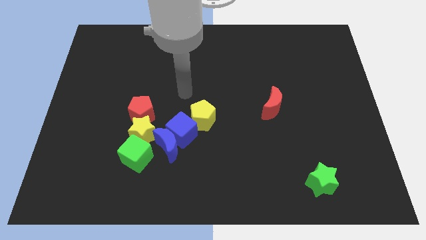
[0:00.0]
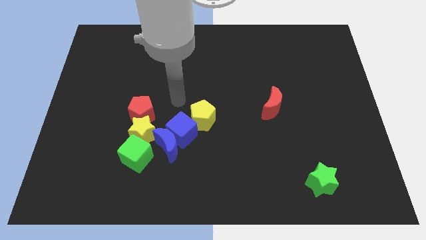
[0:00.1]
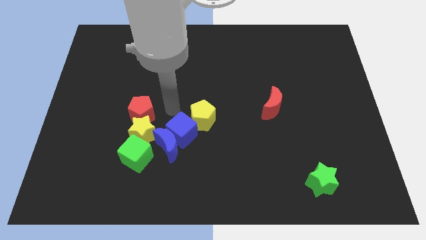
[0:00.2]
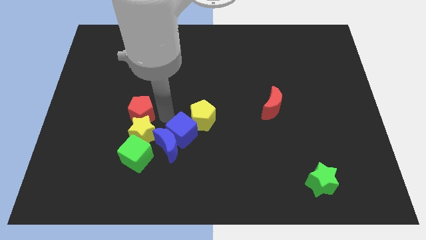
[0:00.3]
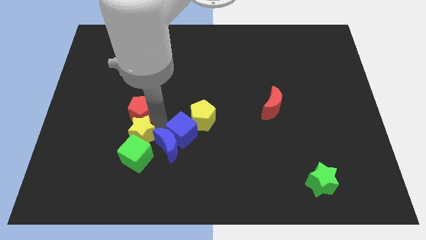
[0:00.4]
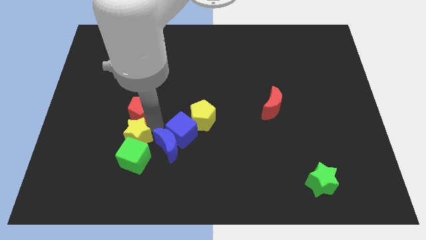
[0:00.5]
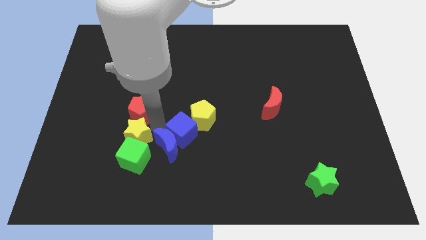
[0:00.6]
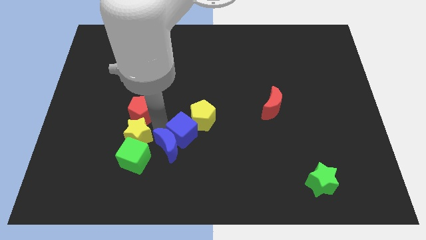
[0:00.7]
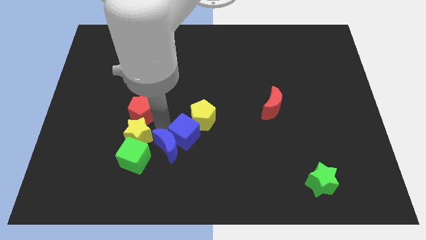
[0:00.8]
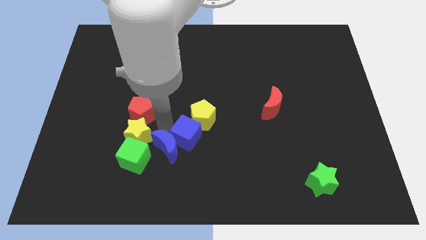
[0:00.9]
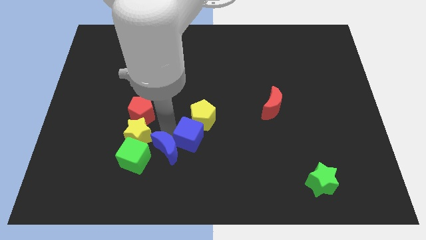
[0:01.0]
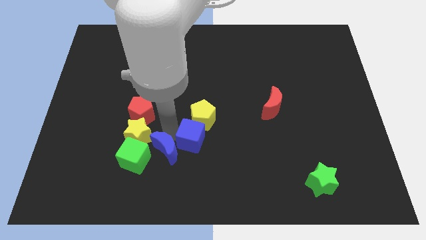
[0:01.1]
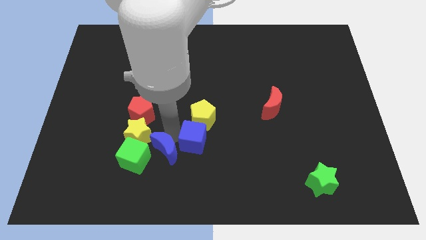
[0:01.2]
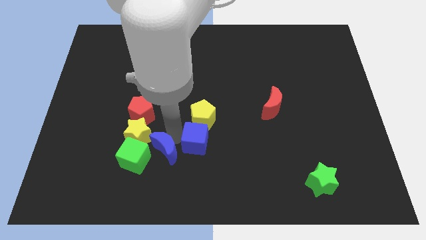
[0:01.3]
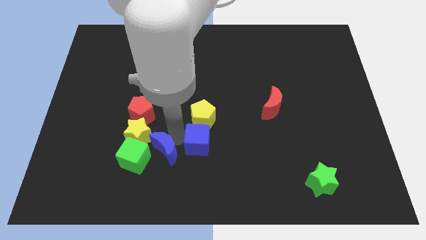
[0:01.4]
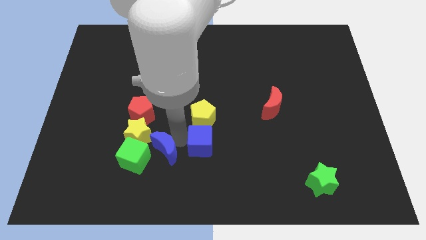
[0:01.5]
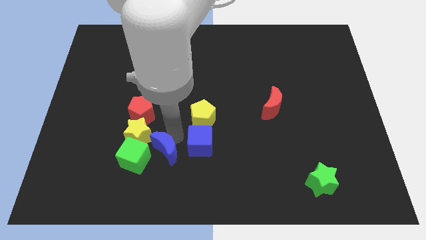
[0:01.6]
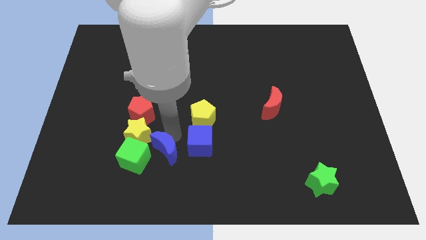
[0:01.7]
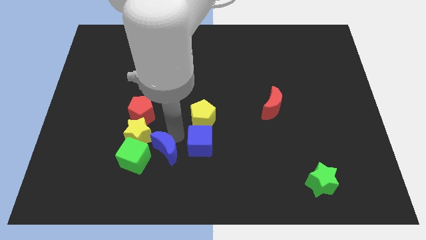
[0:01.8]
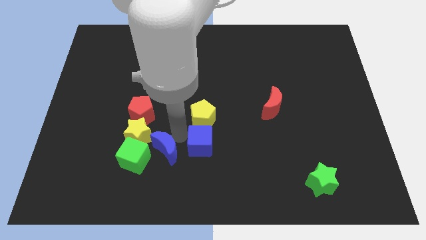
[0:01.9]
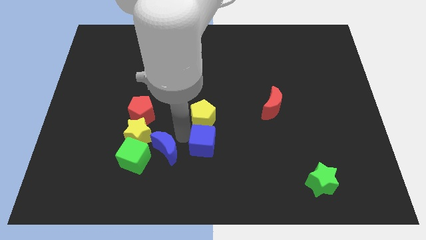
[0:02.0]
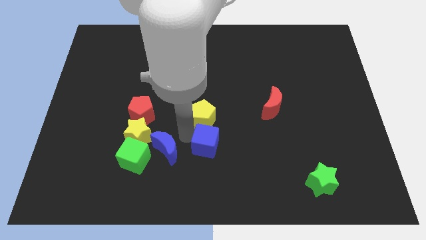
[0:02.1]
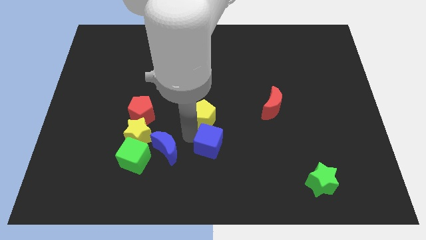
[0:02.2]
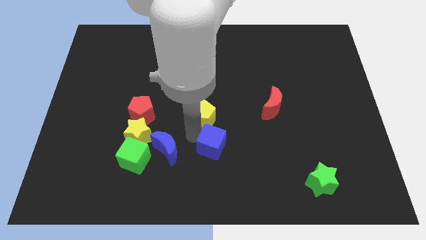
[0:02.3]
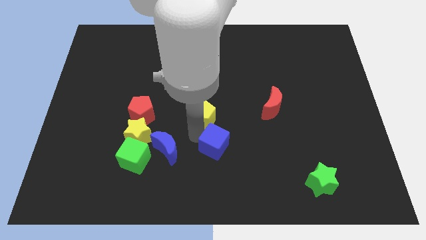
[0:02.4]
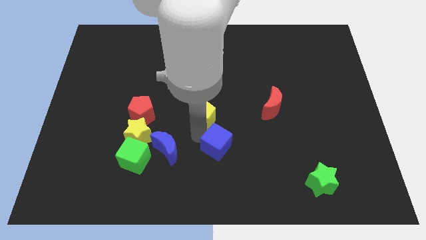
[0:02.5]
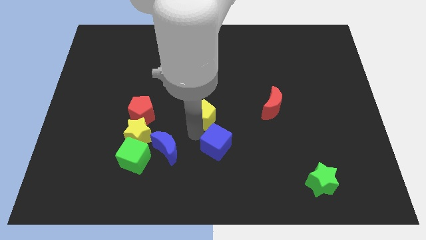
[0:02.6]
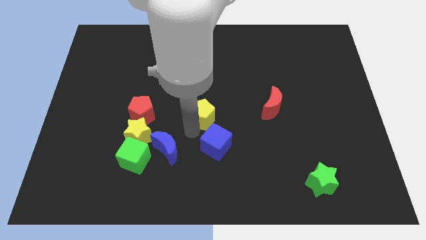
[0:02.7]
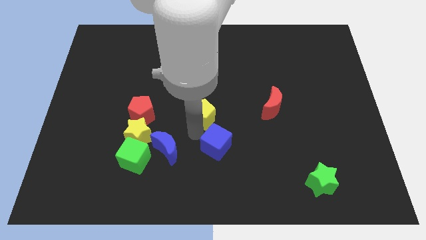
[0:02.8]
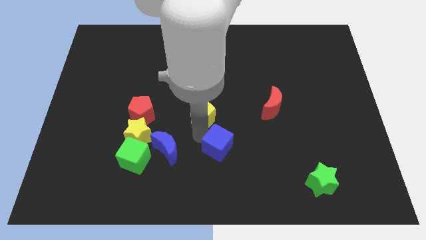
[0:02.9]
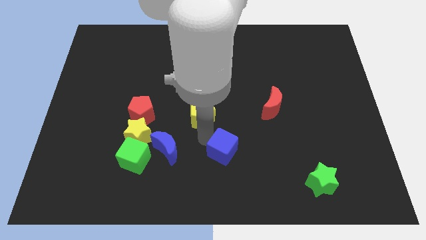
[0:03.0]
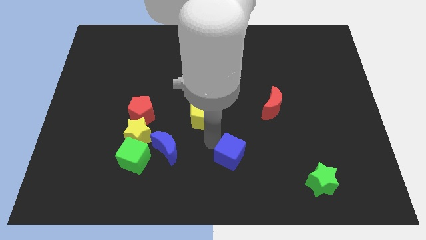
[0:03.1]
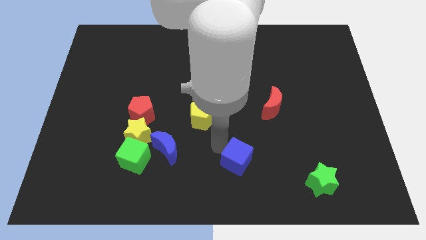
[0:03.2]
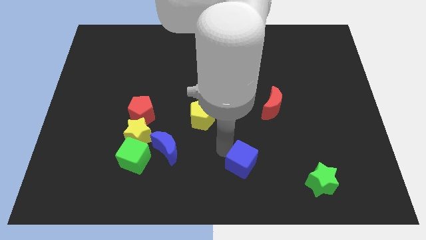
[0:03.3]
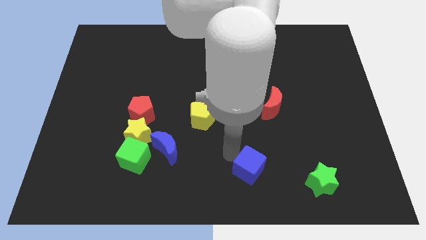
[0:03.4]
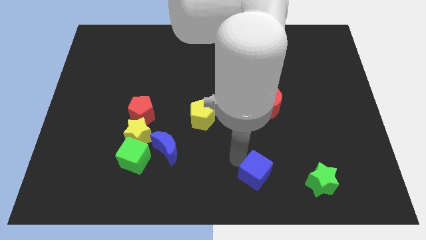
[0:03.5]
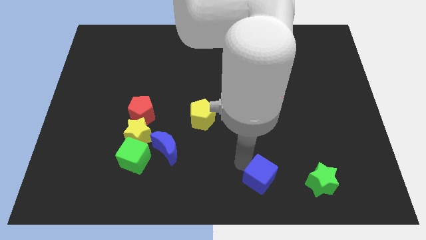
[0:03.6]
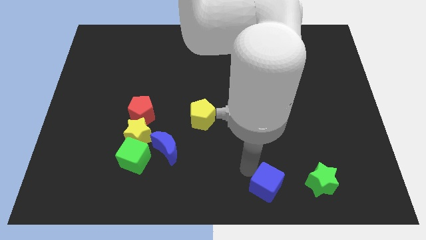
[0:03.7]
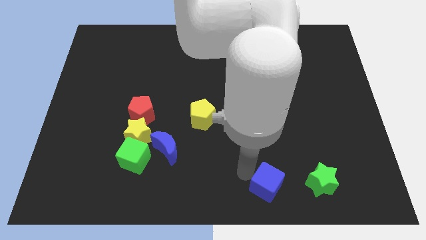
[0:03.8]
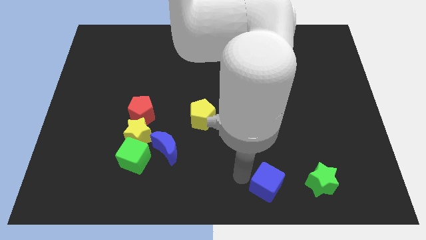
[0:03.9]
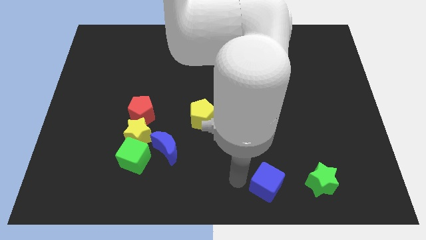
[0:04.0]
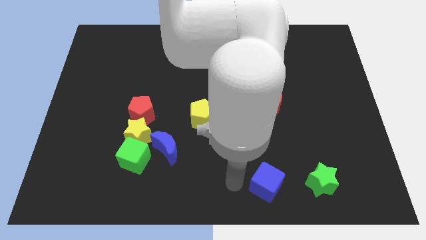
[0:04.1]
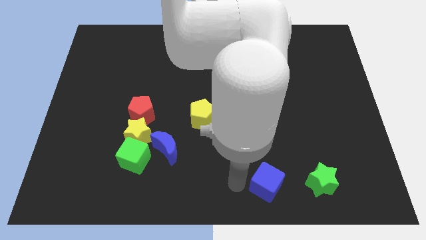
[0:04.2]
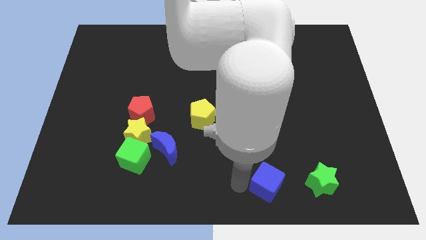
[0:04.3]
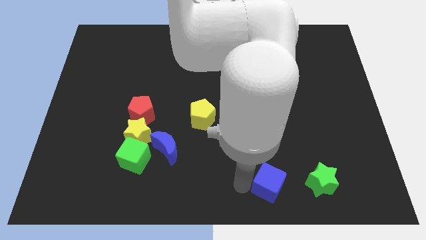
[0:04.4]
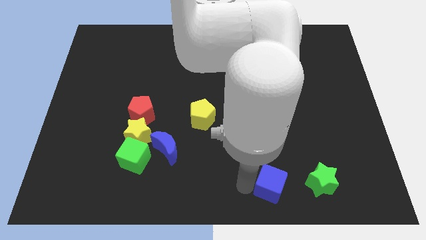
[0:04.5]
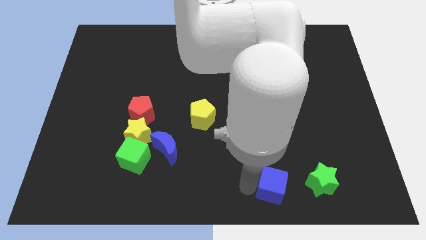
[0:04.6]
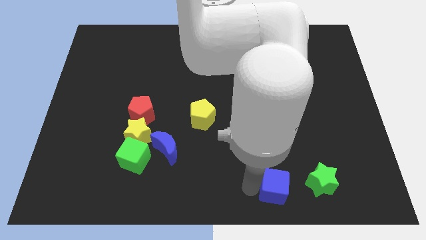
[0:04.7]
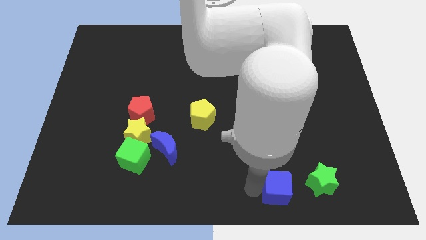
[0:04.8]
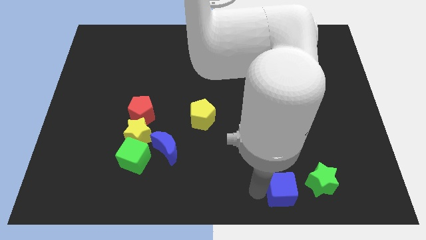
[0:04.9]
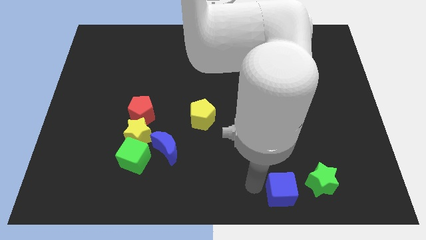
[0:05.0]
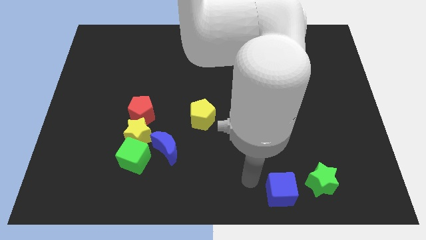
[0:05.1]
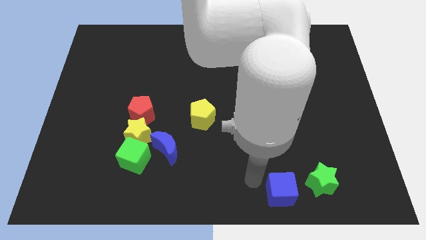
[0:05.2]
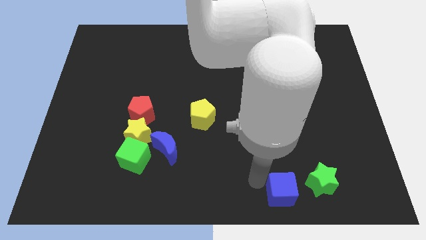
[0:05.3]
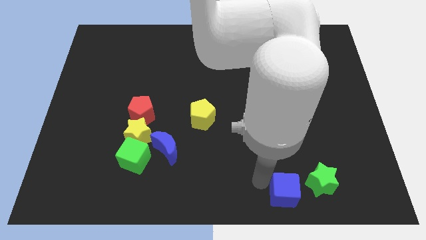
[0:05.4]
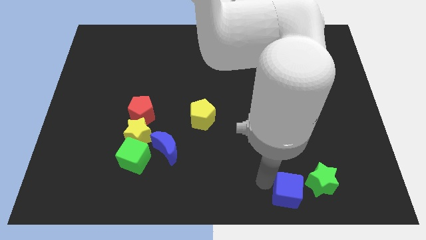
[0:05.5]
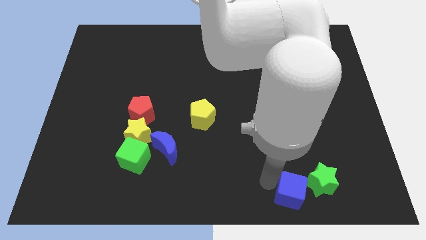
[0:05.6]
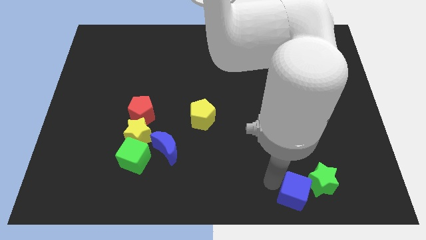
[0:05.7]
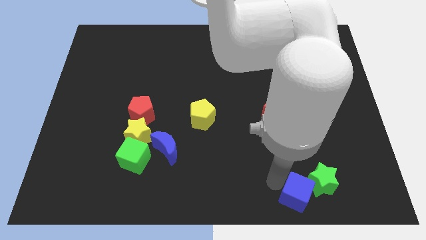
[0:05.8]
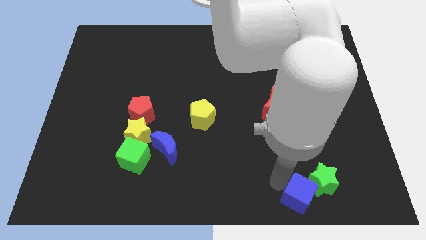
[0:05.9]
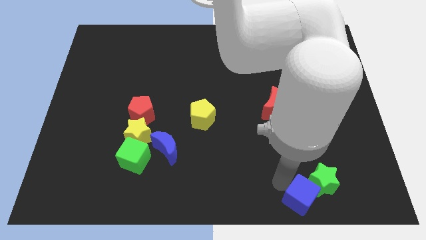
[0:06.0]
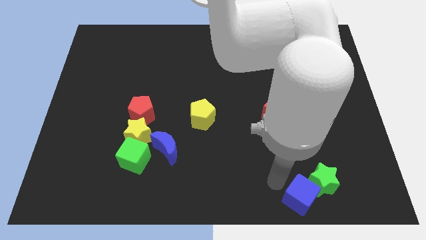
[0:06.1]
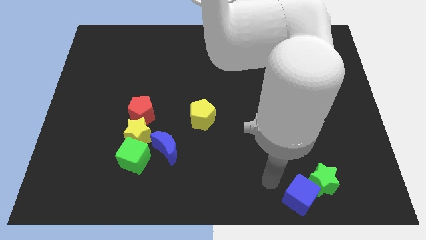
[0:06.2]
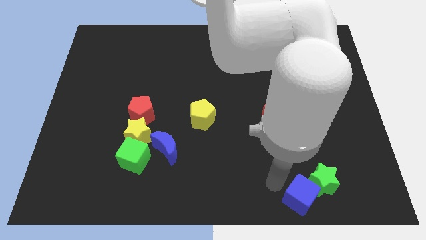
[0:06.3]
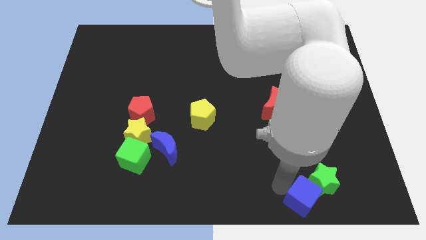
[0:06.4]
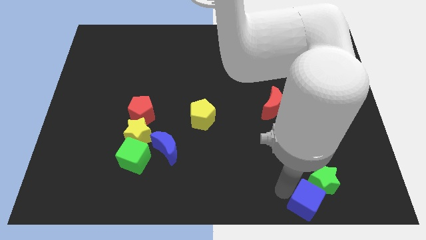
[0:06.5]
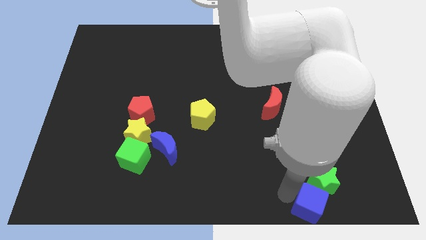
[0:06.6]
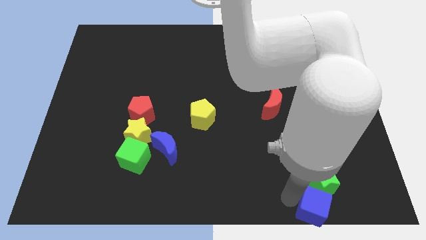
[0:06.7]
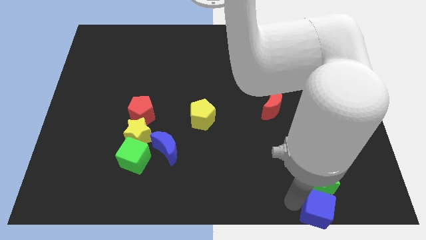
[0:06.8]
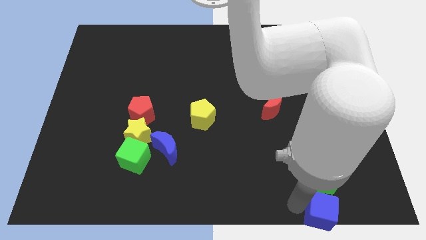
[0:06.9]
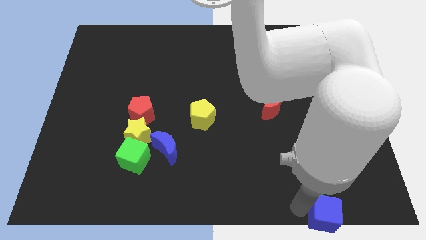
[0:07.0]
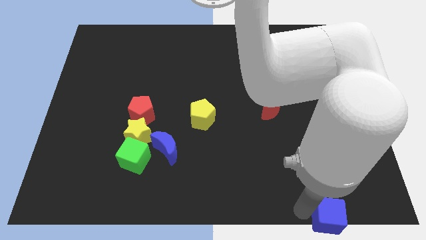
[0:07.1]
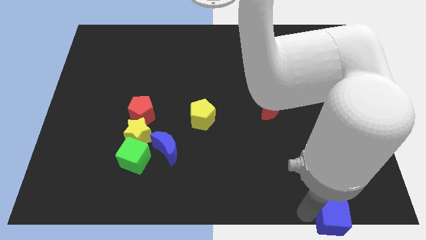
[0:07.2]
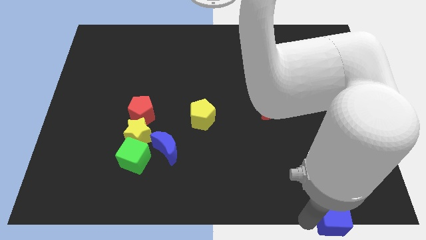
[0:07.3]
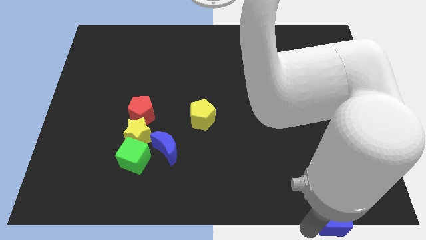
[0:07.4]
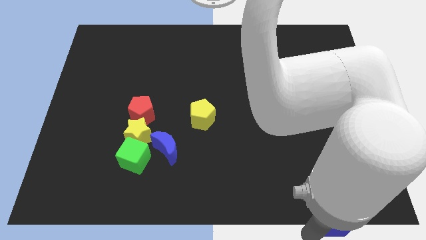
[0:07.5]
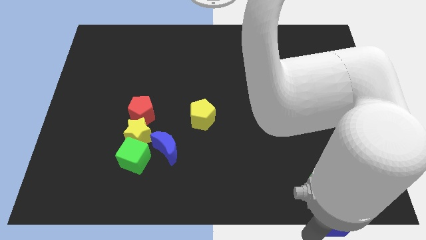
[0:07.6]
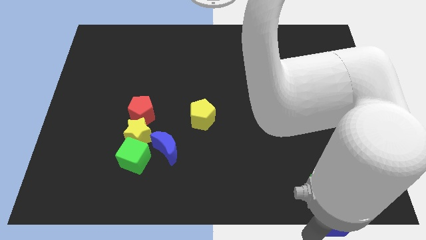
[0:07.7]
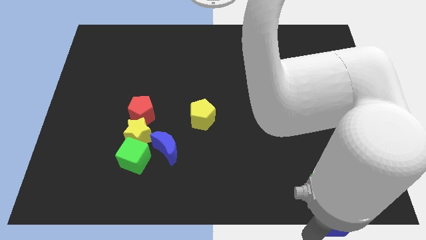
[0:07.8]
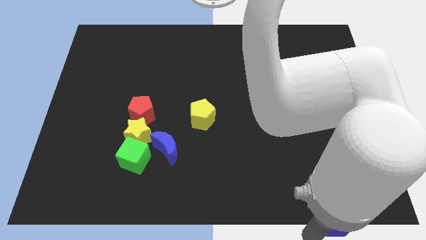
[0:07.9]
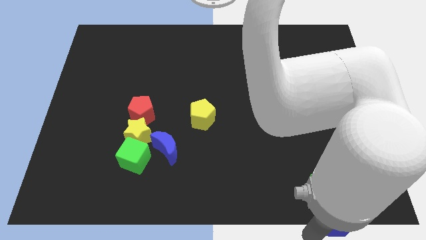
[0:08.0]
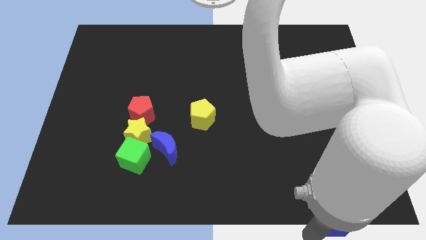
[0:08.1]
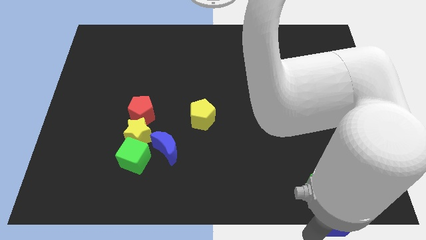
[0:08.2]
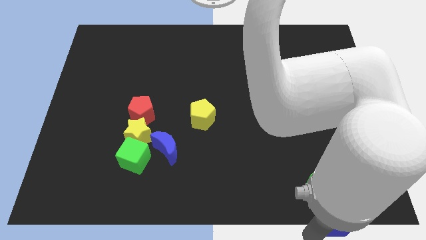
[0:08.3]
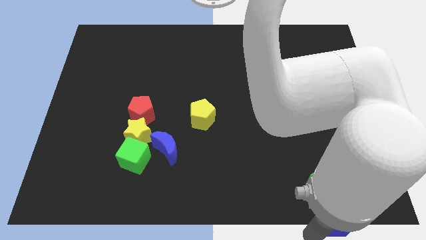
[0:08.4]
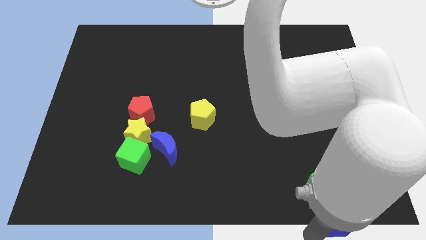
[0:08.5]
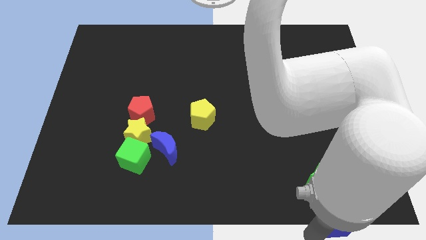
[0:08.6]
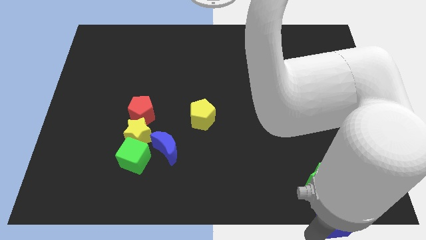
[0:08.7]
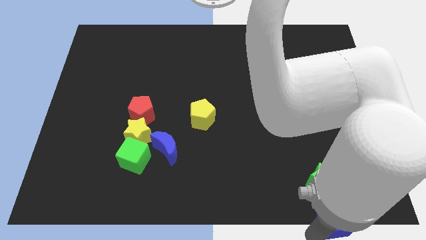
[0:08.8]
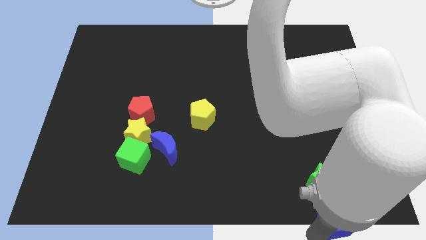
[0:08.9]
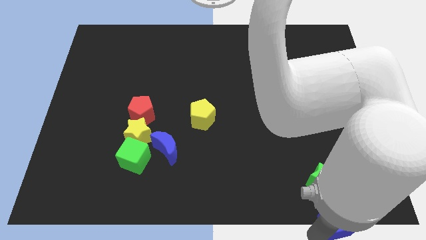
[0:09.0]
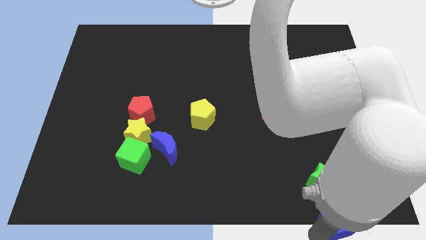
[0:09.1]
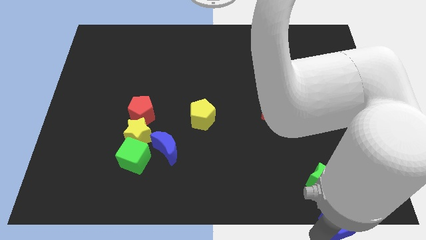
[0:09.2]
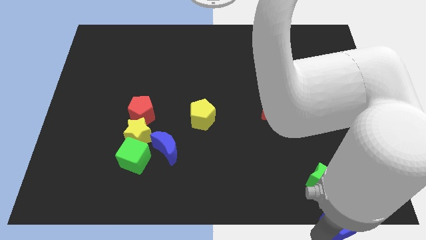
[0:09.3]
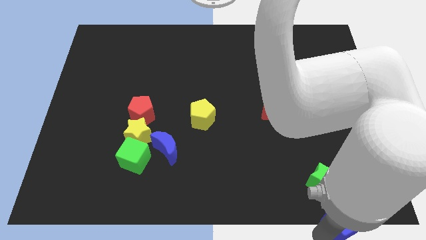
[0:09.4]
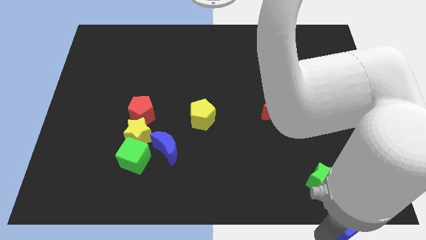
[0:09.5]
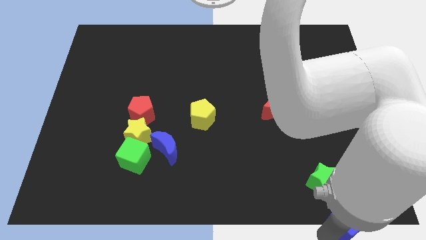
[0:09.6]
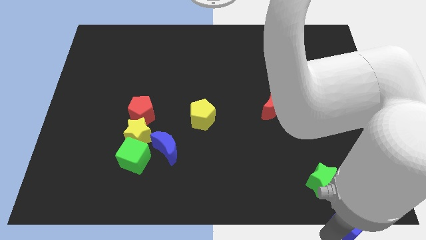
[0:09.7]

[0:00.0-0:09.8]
put the blue cube to the bottom right corner
